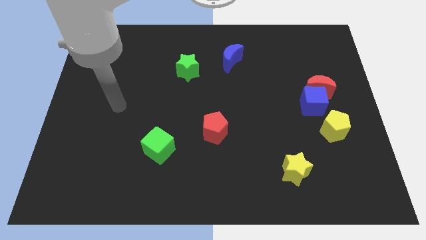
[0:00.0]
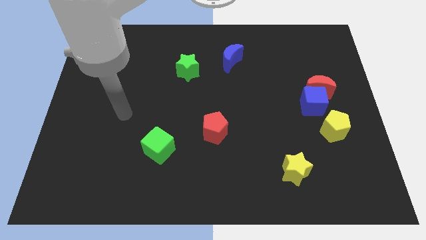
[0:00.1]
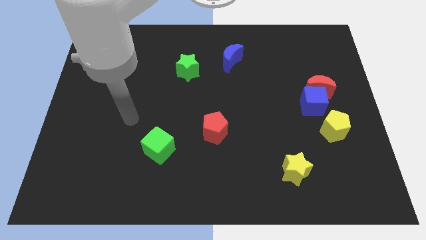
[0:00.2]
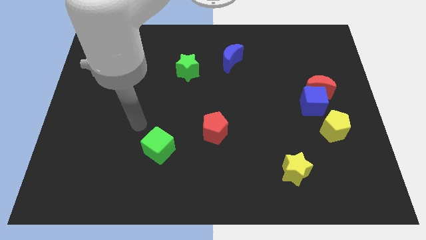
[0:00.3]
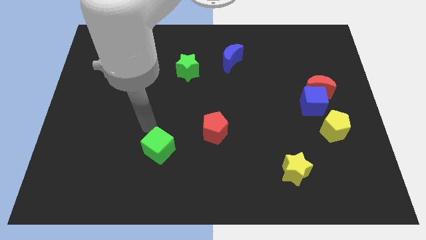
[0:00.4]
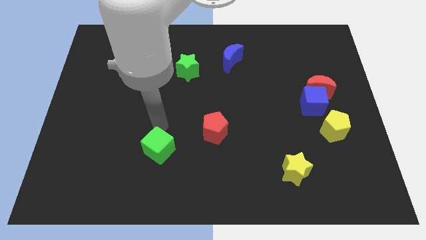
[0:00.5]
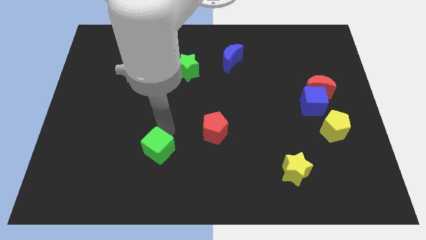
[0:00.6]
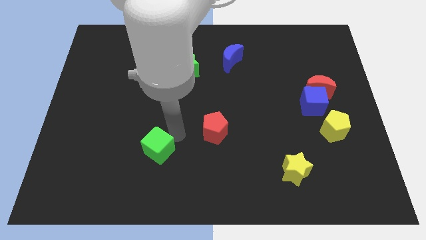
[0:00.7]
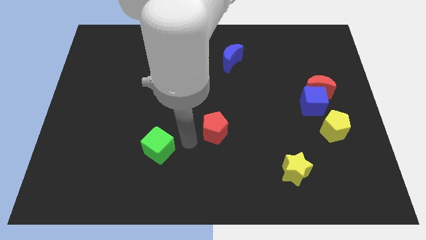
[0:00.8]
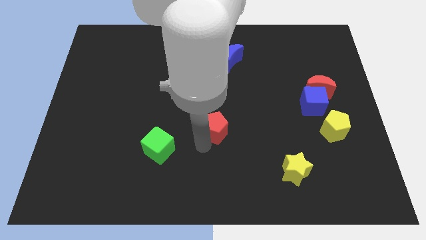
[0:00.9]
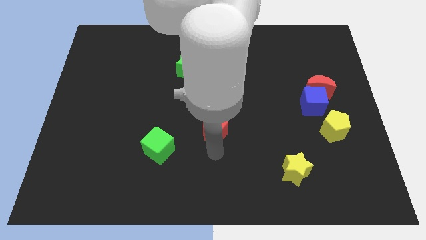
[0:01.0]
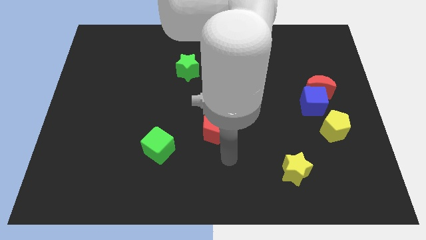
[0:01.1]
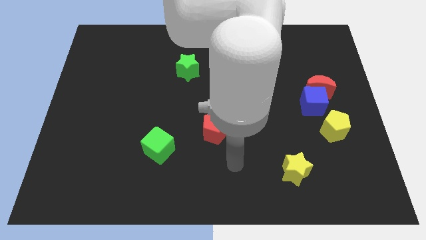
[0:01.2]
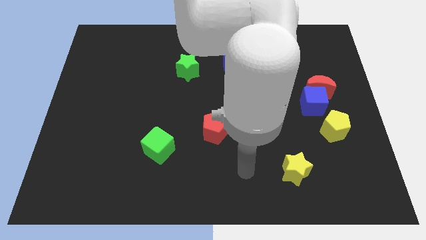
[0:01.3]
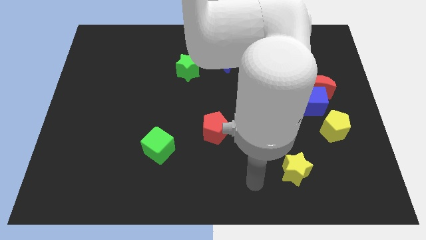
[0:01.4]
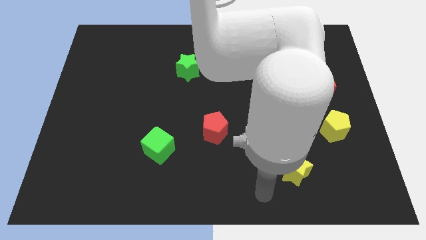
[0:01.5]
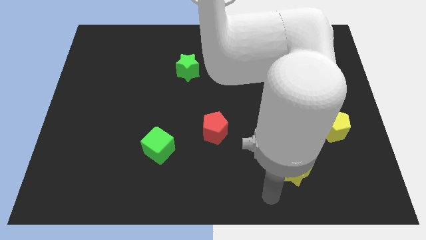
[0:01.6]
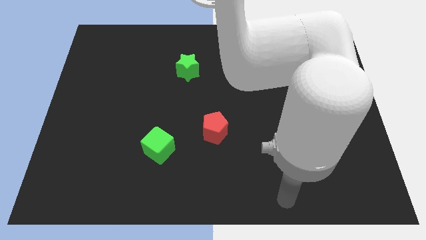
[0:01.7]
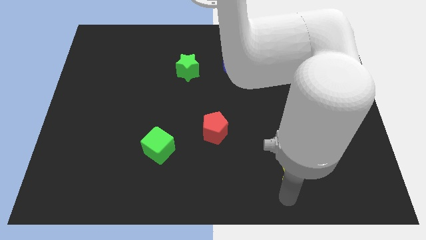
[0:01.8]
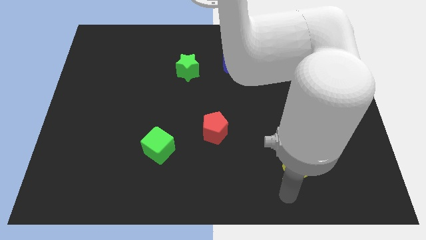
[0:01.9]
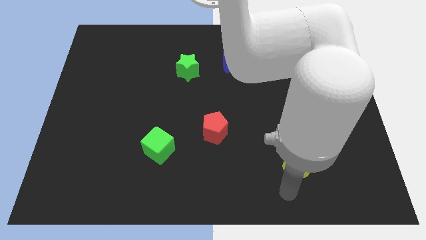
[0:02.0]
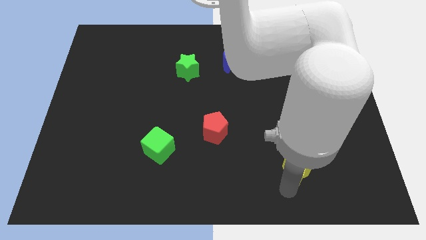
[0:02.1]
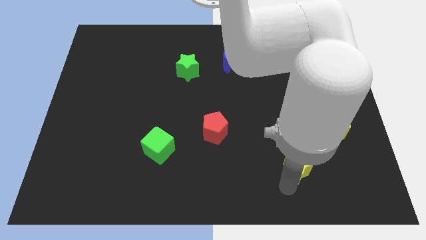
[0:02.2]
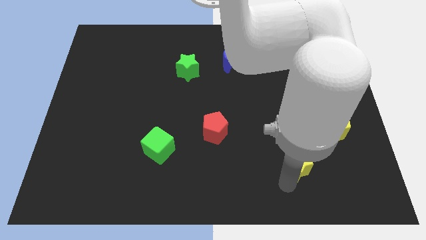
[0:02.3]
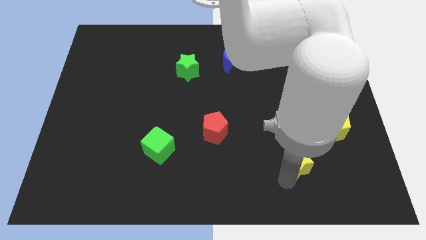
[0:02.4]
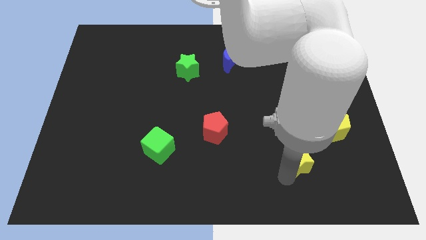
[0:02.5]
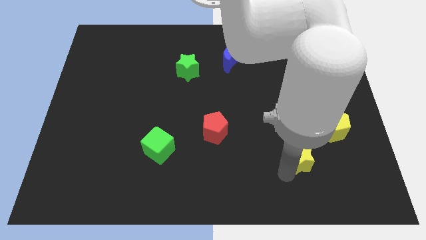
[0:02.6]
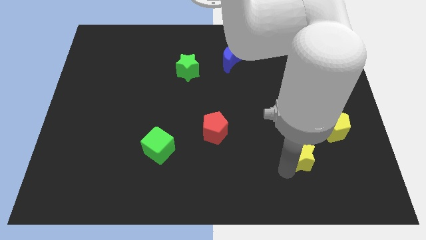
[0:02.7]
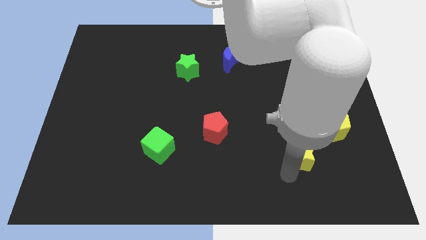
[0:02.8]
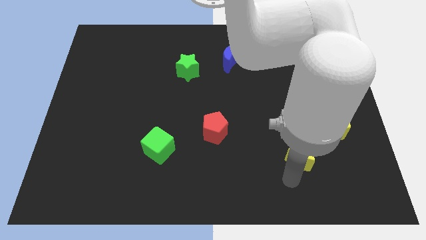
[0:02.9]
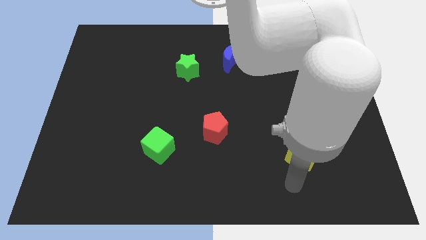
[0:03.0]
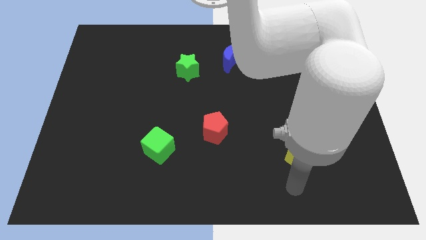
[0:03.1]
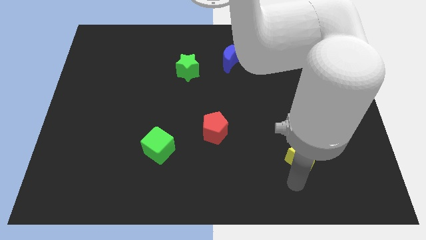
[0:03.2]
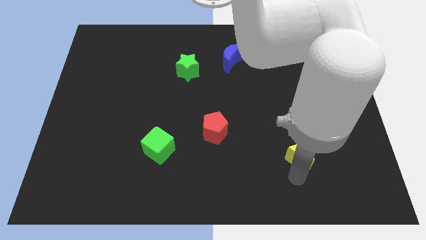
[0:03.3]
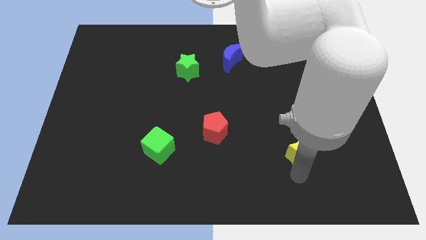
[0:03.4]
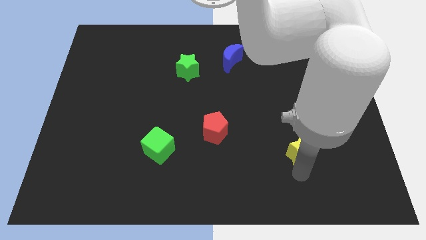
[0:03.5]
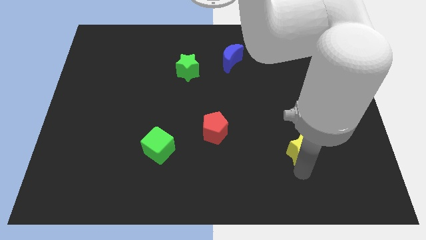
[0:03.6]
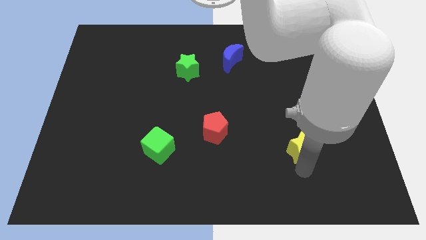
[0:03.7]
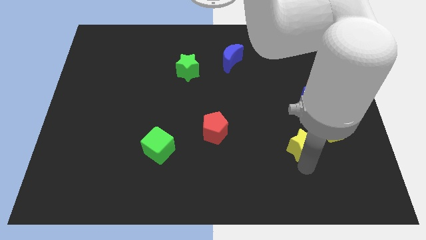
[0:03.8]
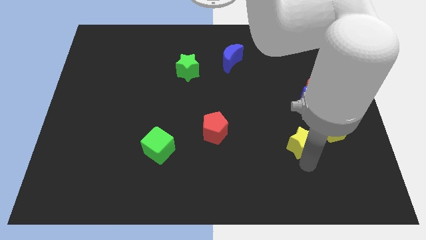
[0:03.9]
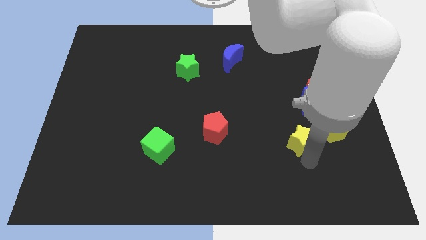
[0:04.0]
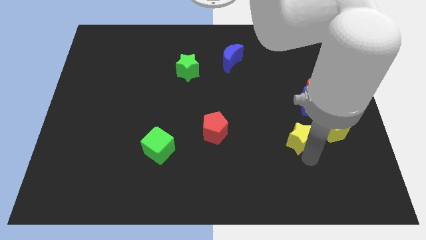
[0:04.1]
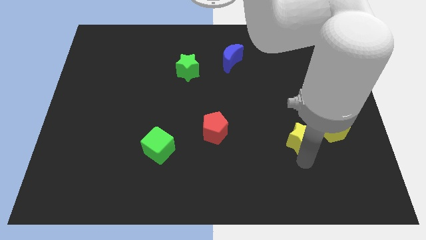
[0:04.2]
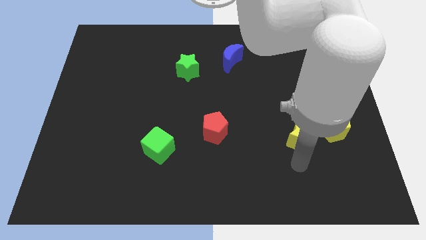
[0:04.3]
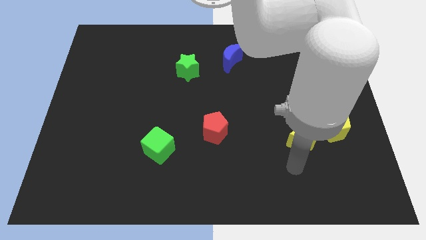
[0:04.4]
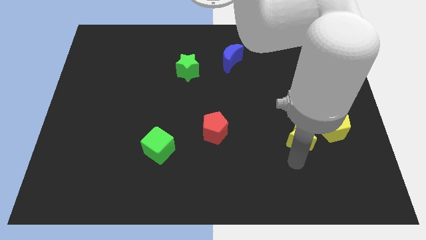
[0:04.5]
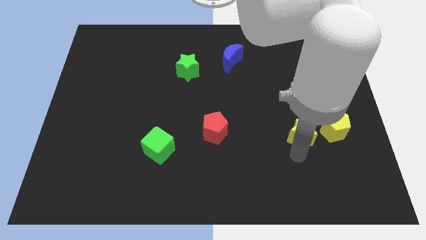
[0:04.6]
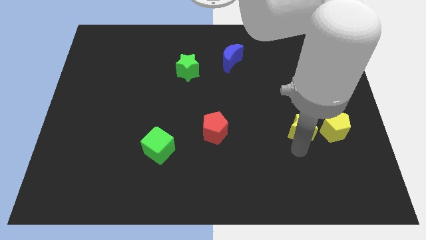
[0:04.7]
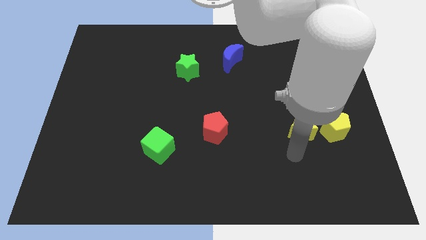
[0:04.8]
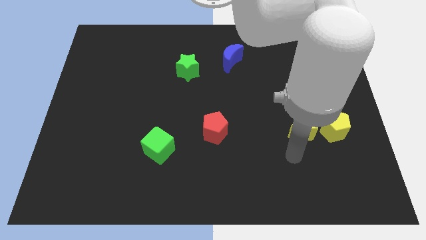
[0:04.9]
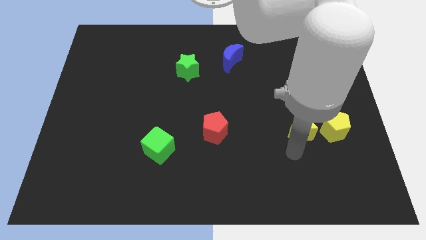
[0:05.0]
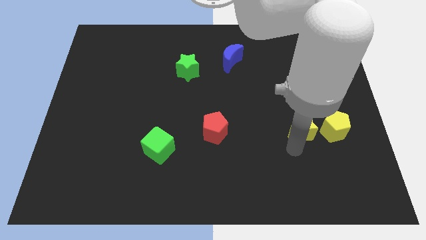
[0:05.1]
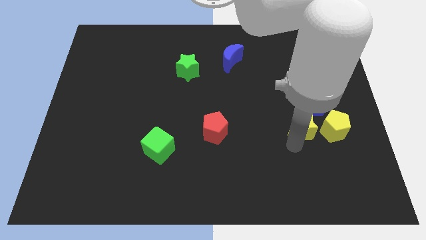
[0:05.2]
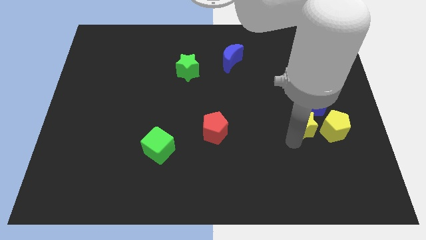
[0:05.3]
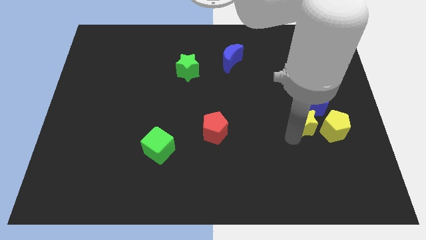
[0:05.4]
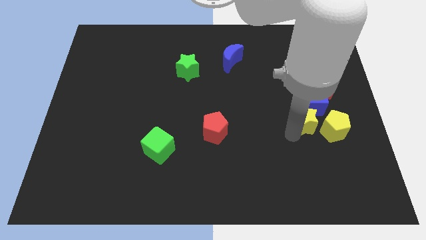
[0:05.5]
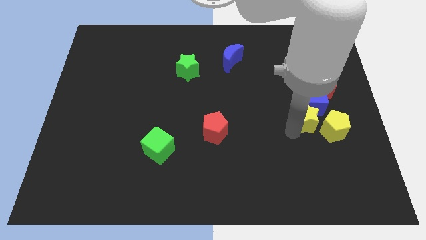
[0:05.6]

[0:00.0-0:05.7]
slide the yellow star close to the blue cube

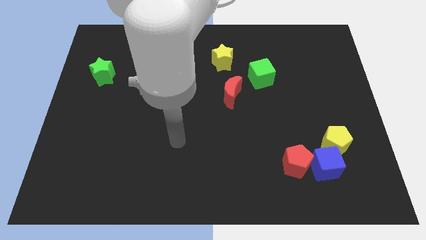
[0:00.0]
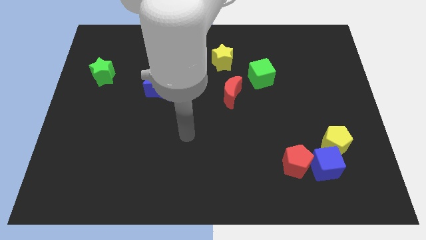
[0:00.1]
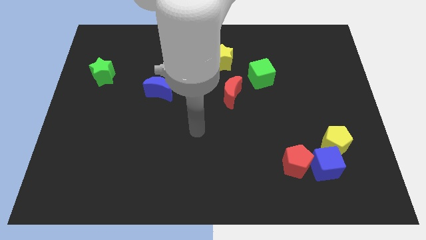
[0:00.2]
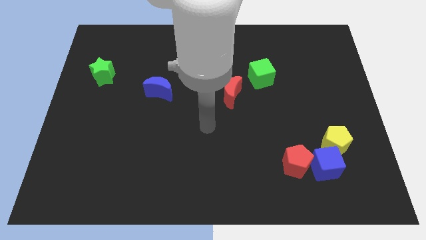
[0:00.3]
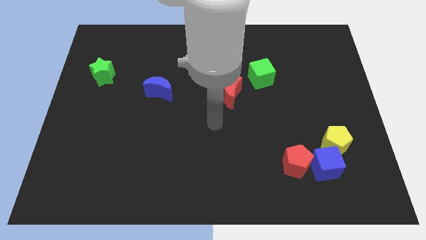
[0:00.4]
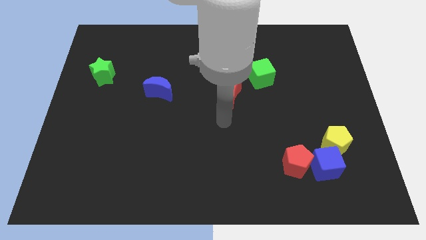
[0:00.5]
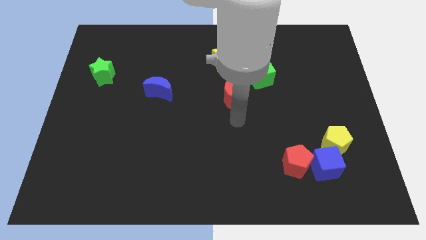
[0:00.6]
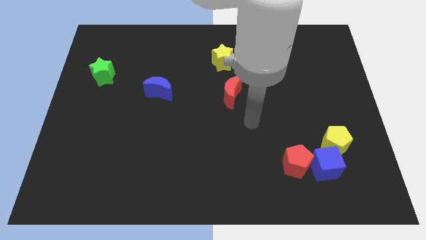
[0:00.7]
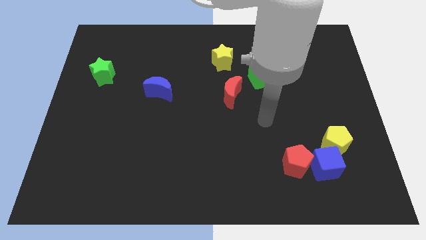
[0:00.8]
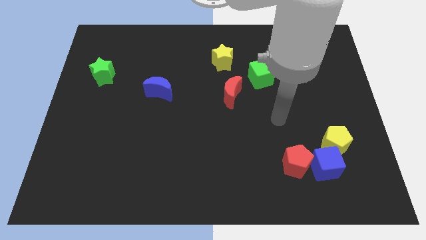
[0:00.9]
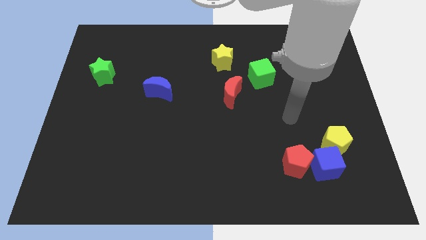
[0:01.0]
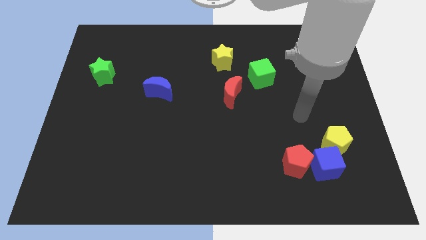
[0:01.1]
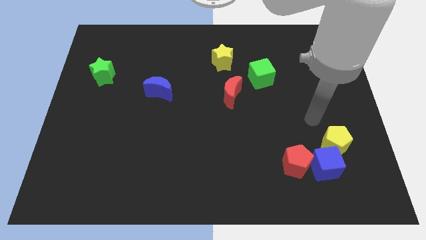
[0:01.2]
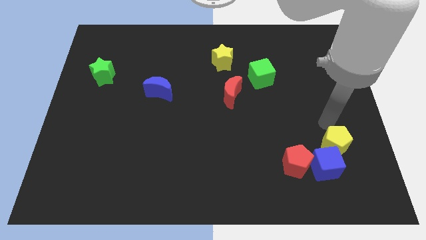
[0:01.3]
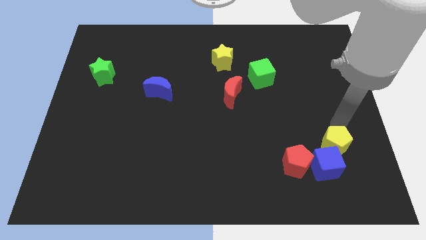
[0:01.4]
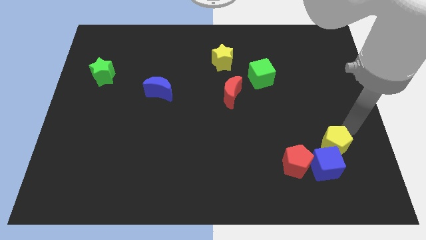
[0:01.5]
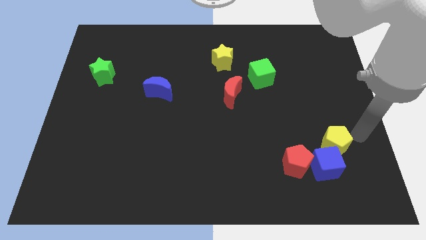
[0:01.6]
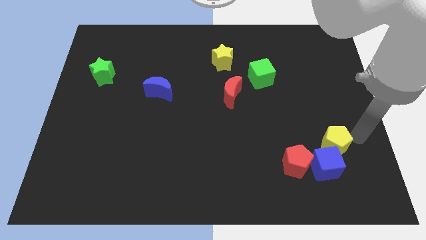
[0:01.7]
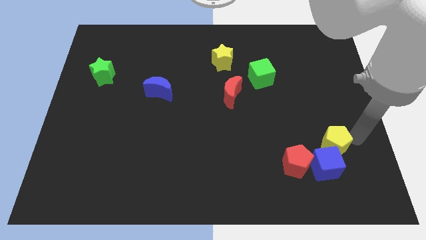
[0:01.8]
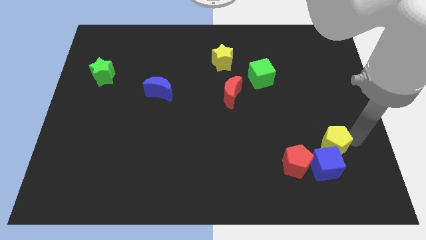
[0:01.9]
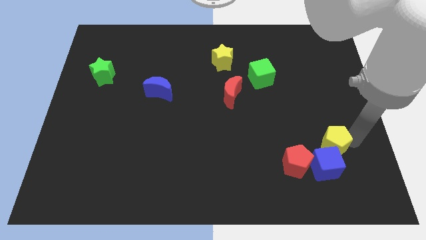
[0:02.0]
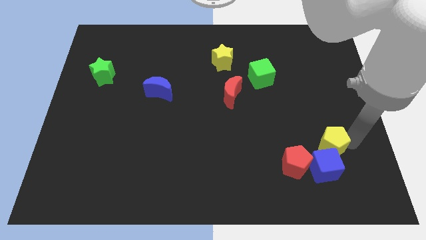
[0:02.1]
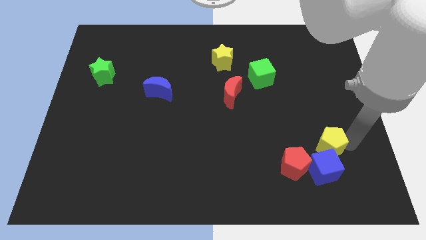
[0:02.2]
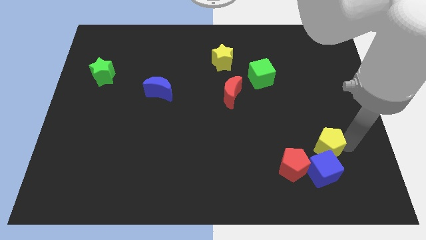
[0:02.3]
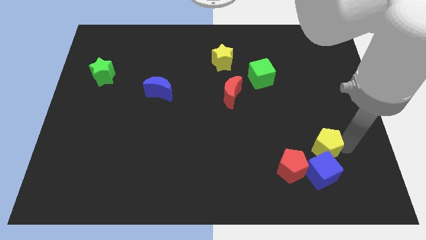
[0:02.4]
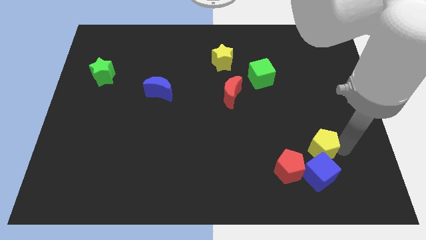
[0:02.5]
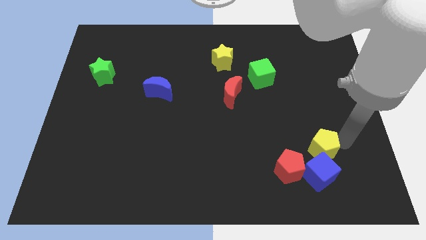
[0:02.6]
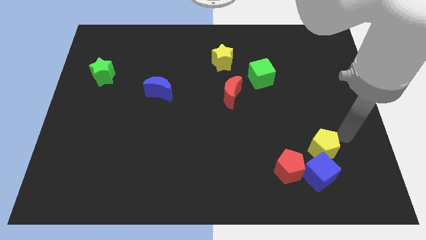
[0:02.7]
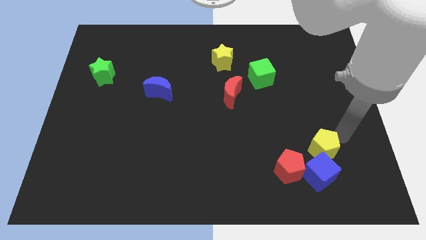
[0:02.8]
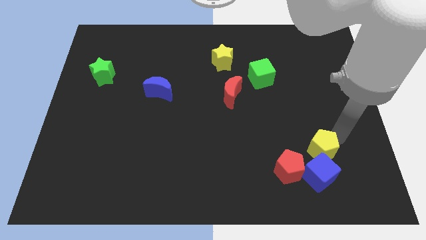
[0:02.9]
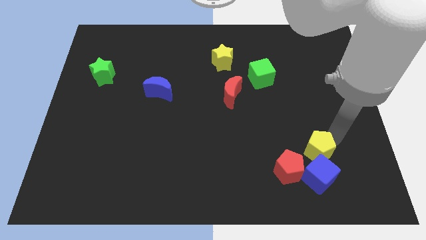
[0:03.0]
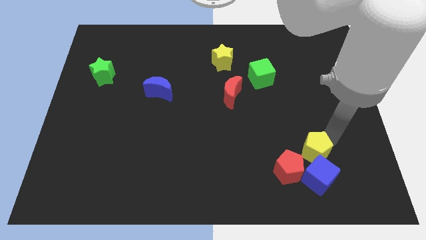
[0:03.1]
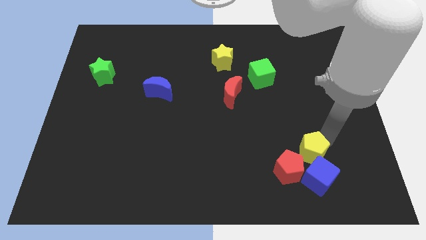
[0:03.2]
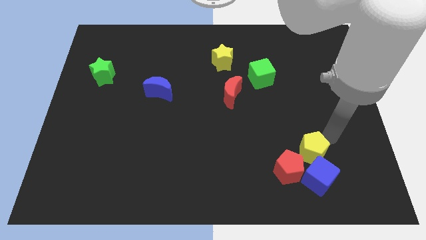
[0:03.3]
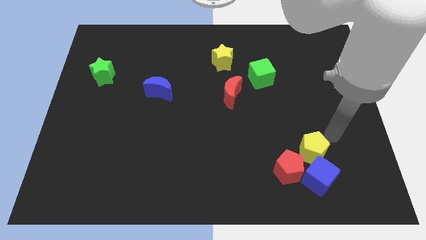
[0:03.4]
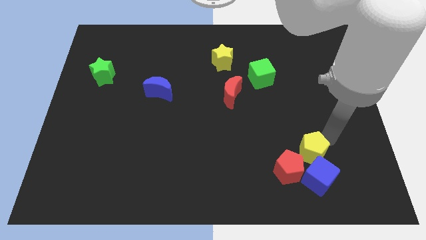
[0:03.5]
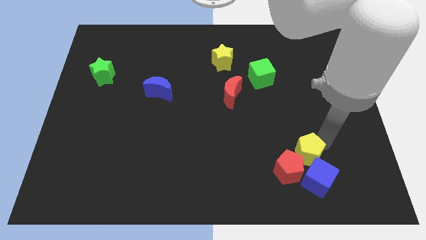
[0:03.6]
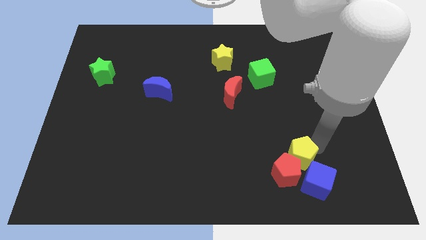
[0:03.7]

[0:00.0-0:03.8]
slide the yellow pentagon next to the red pentagon
